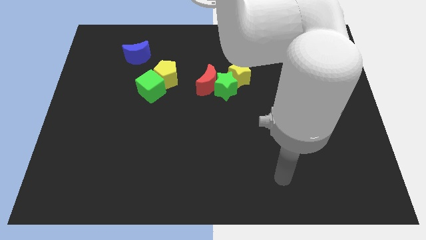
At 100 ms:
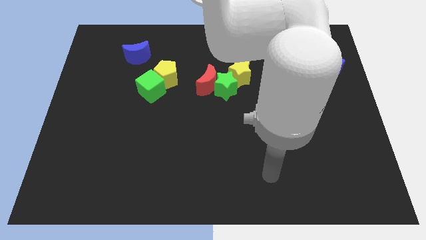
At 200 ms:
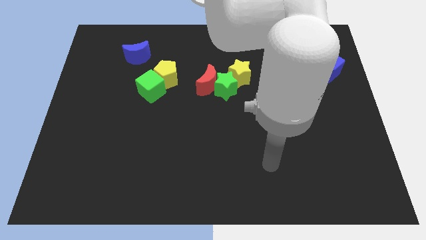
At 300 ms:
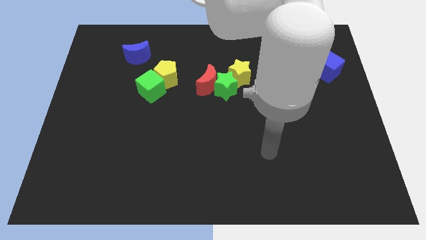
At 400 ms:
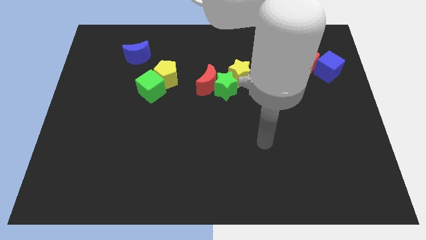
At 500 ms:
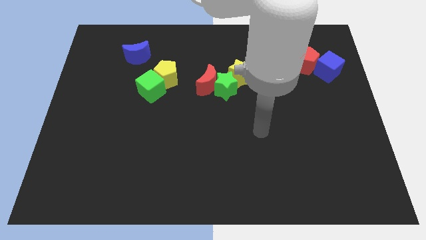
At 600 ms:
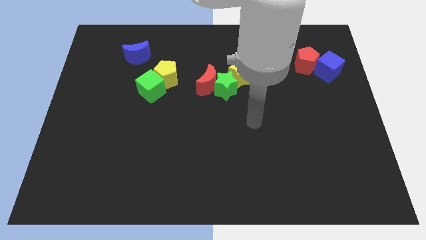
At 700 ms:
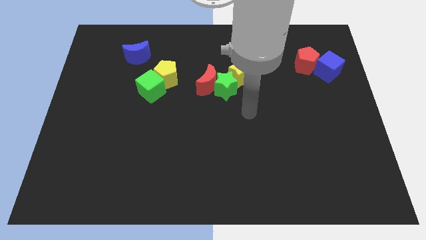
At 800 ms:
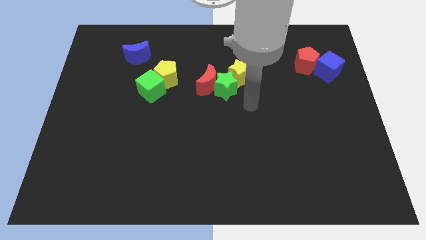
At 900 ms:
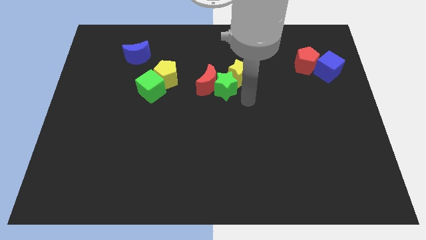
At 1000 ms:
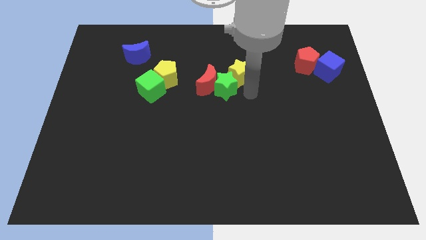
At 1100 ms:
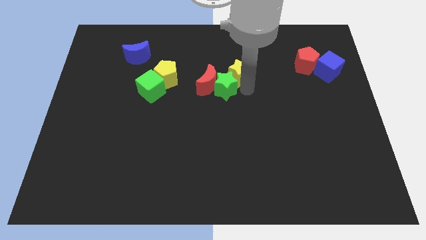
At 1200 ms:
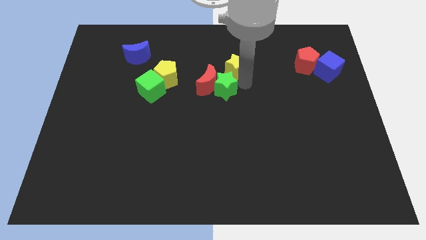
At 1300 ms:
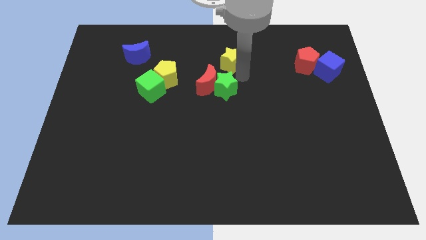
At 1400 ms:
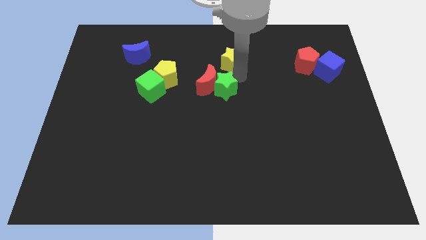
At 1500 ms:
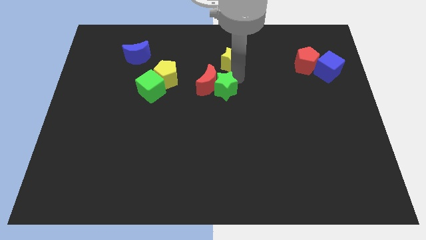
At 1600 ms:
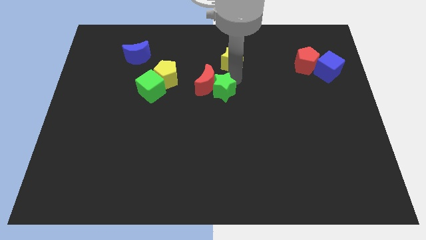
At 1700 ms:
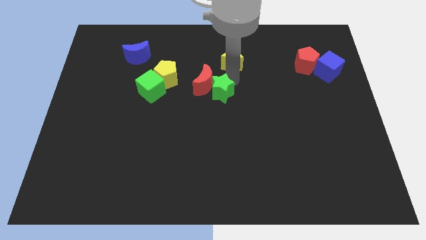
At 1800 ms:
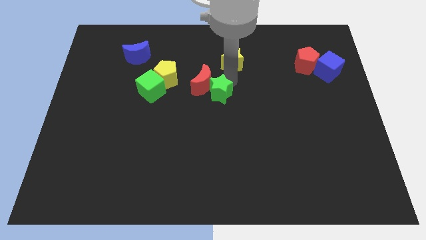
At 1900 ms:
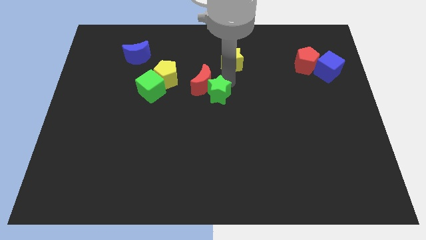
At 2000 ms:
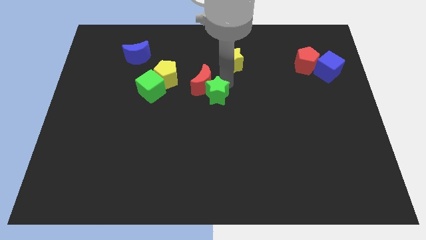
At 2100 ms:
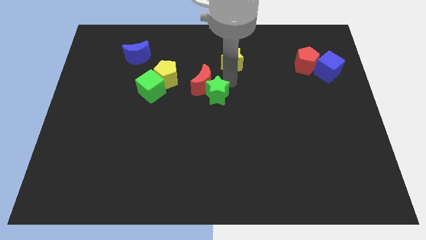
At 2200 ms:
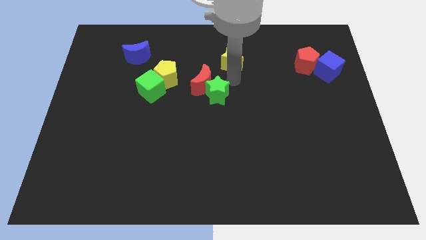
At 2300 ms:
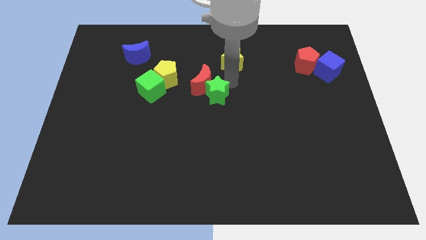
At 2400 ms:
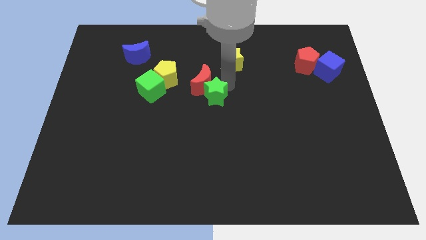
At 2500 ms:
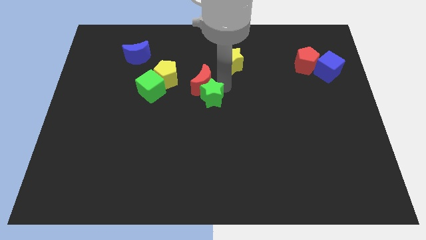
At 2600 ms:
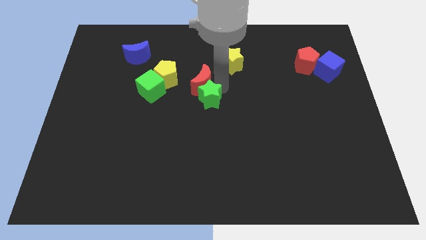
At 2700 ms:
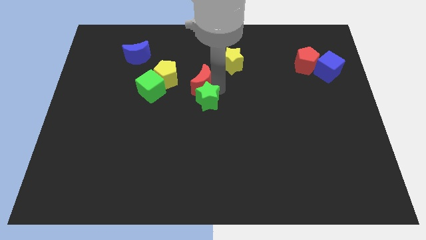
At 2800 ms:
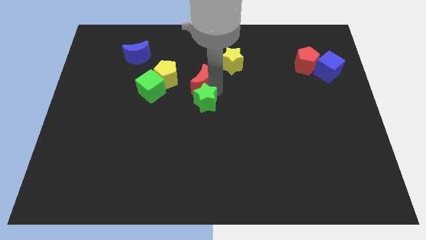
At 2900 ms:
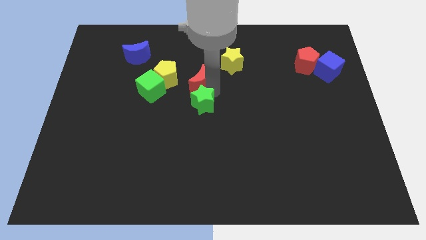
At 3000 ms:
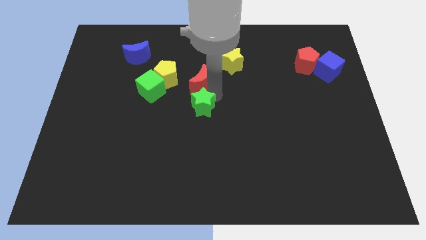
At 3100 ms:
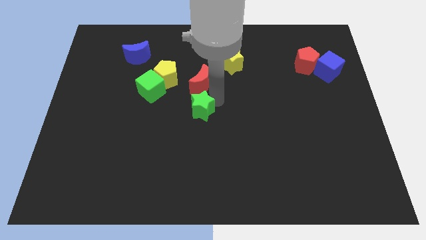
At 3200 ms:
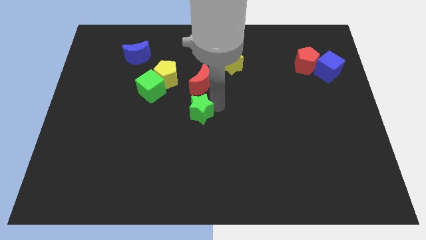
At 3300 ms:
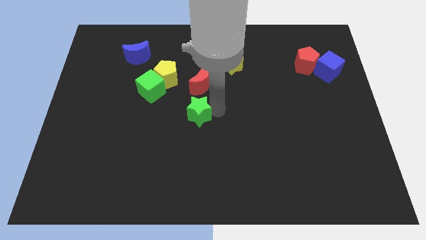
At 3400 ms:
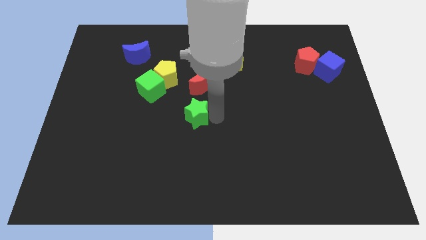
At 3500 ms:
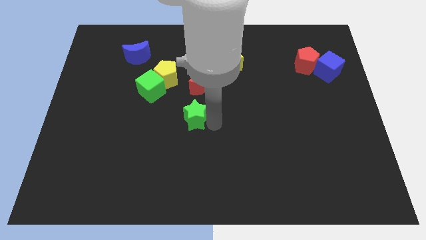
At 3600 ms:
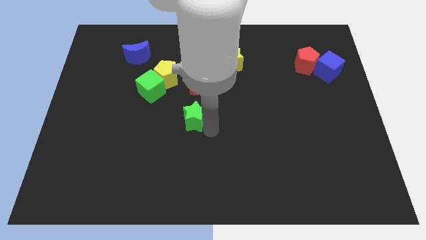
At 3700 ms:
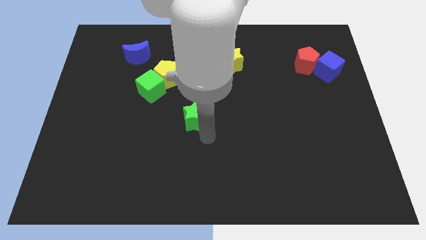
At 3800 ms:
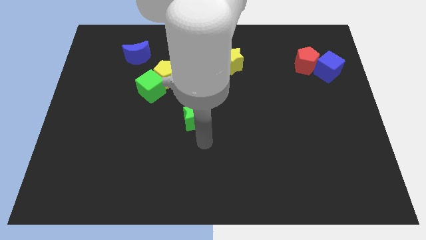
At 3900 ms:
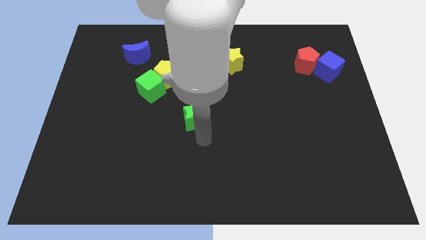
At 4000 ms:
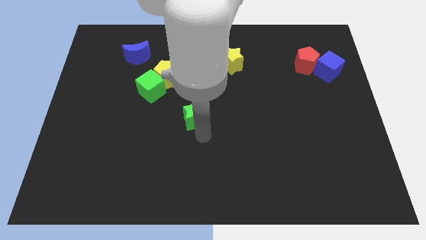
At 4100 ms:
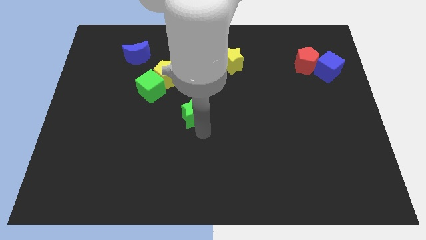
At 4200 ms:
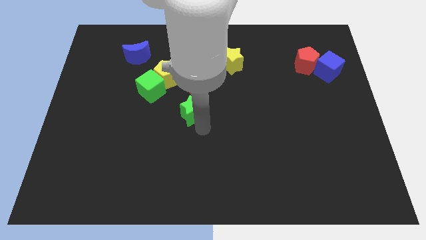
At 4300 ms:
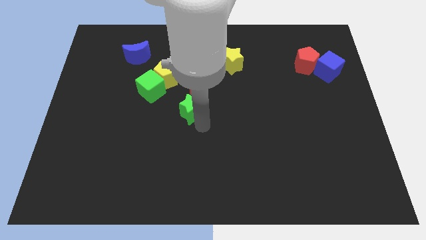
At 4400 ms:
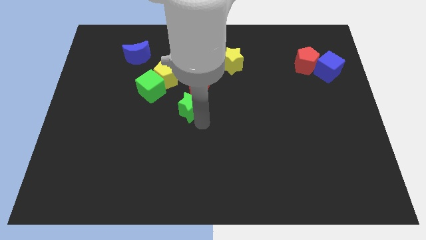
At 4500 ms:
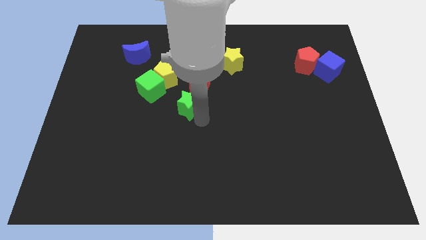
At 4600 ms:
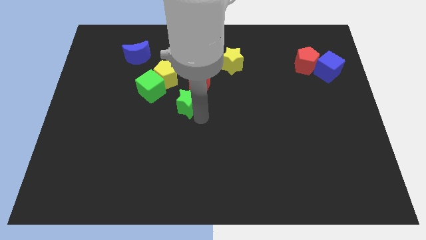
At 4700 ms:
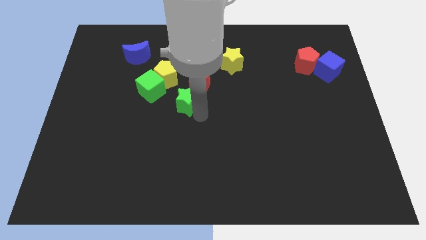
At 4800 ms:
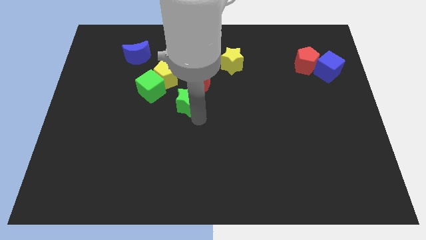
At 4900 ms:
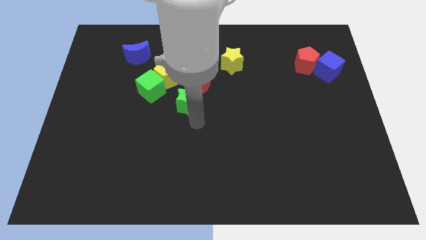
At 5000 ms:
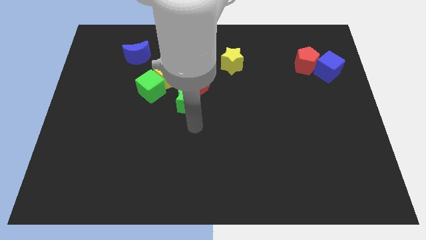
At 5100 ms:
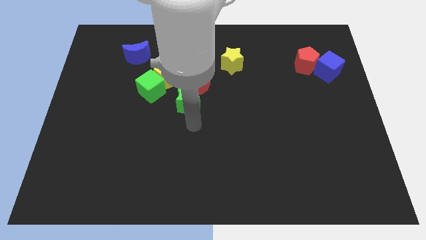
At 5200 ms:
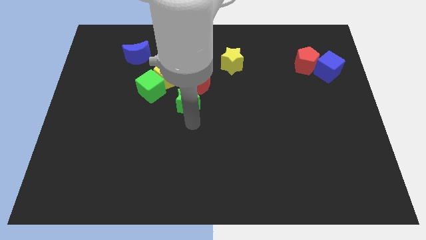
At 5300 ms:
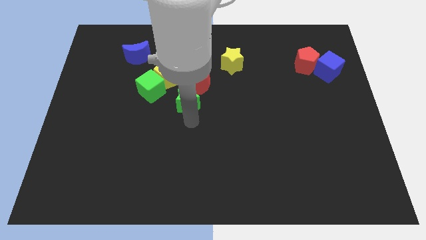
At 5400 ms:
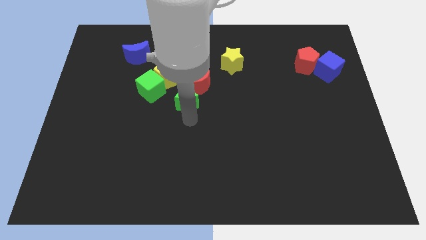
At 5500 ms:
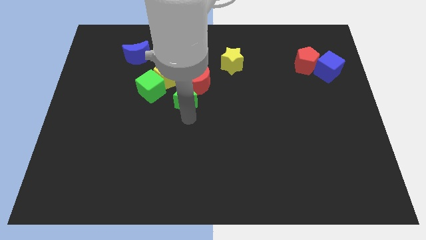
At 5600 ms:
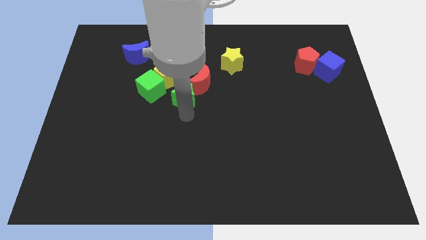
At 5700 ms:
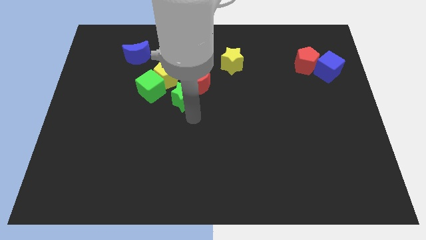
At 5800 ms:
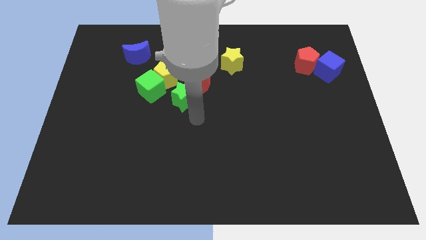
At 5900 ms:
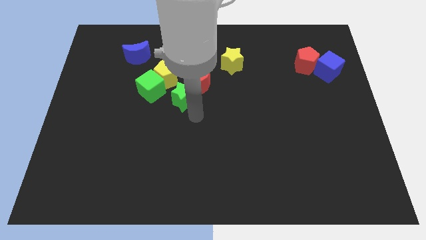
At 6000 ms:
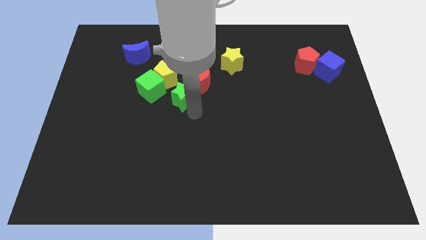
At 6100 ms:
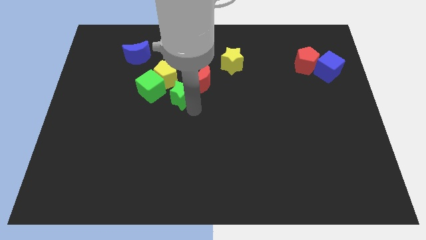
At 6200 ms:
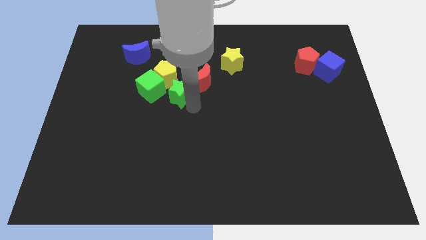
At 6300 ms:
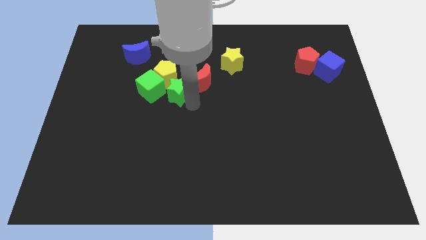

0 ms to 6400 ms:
push the green star towards the yellow pentagon

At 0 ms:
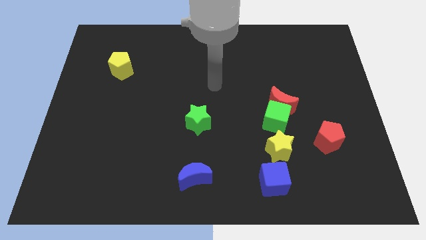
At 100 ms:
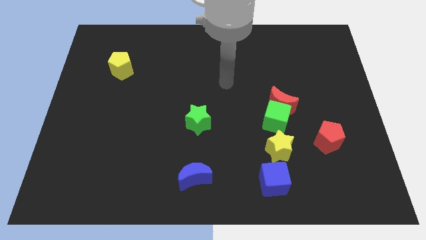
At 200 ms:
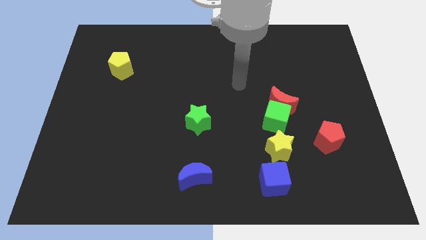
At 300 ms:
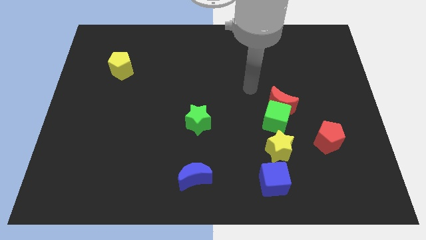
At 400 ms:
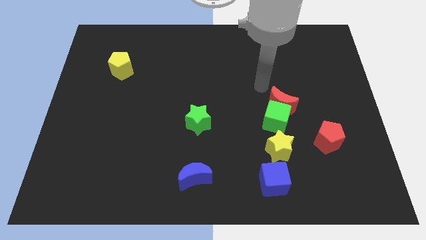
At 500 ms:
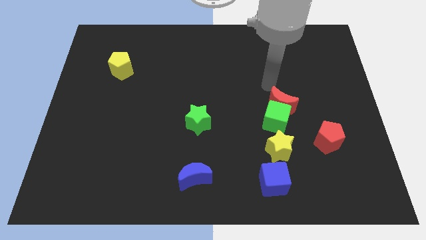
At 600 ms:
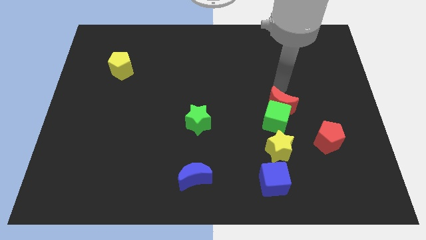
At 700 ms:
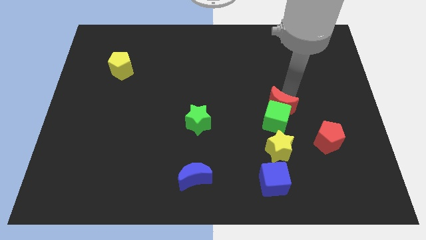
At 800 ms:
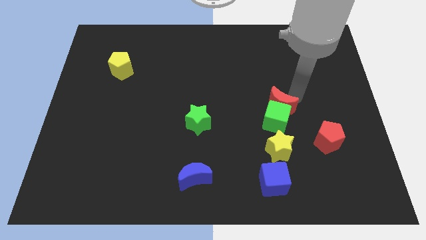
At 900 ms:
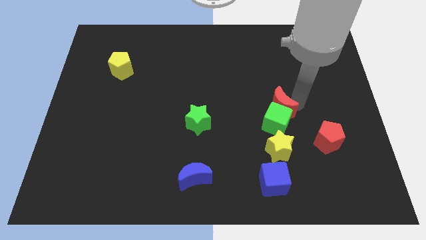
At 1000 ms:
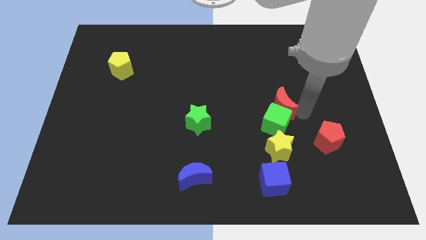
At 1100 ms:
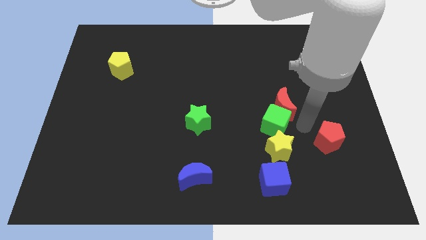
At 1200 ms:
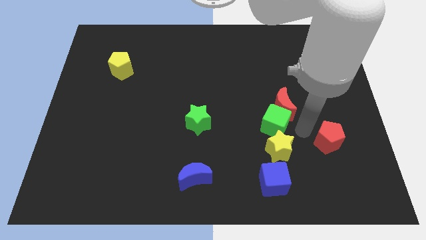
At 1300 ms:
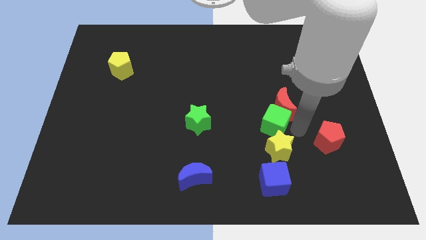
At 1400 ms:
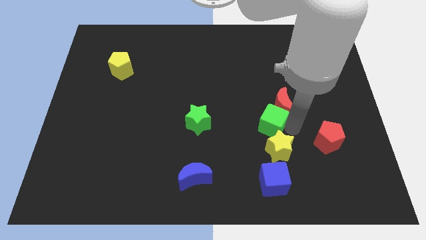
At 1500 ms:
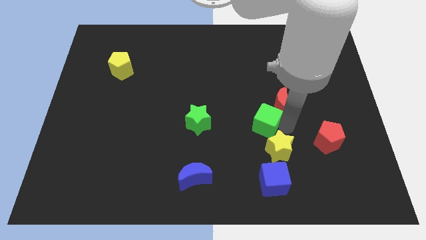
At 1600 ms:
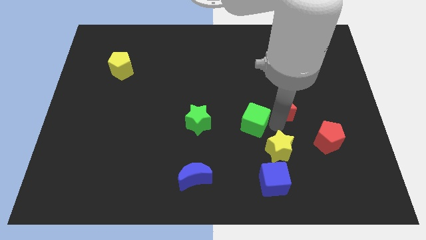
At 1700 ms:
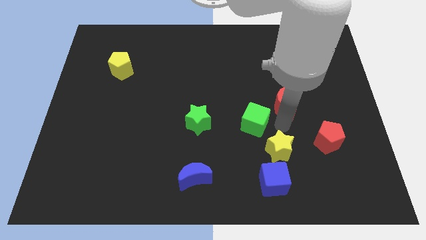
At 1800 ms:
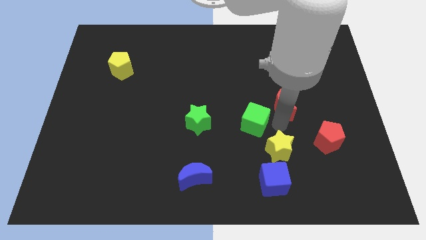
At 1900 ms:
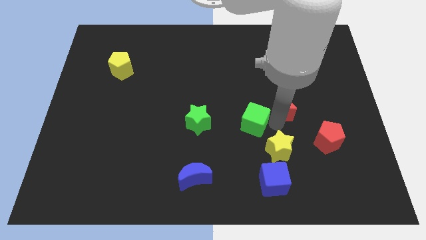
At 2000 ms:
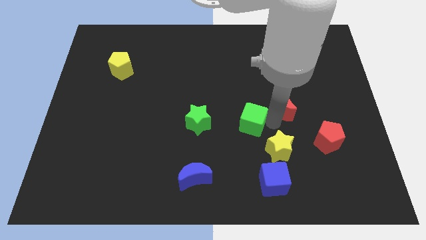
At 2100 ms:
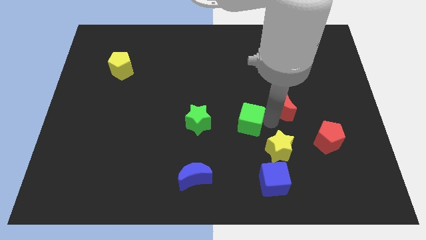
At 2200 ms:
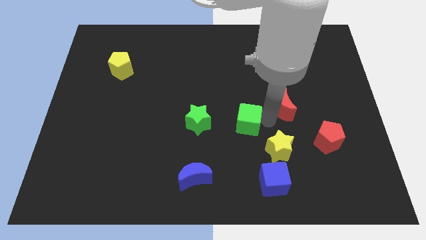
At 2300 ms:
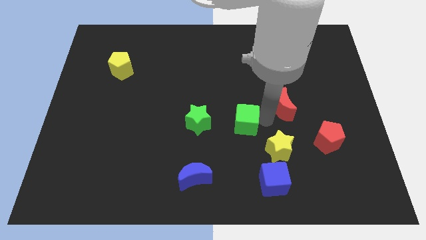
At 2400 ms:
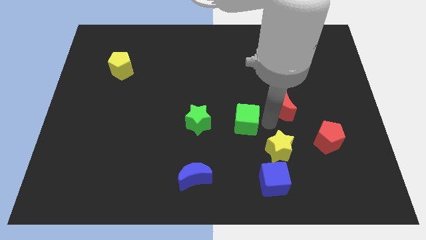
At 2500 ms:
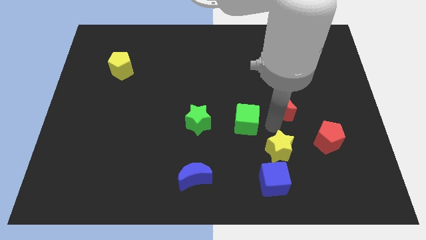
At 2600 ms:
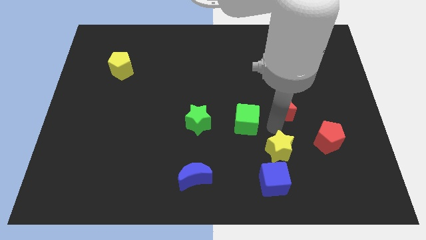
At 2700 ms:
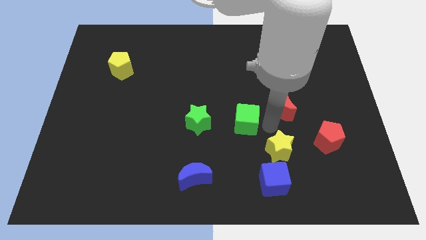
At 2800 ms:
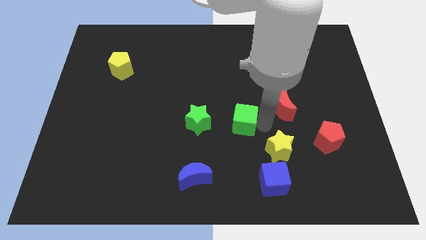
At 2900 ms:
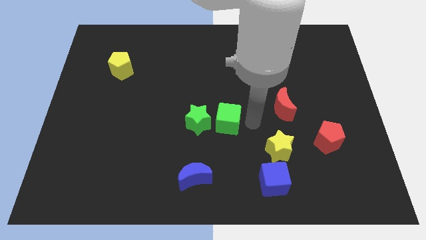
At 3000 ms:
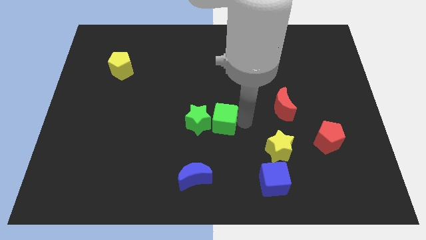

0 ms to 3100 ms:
put the green cube towards the green star
